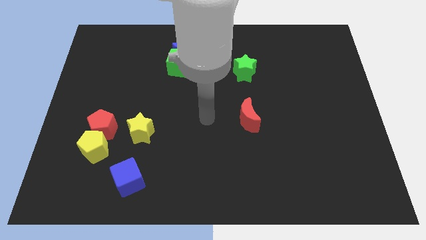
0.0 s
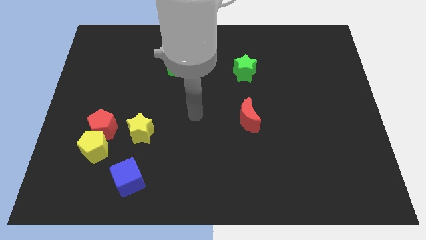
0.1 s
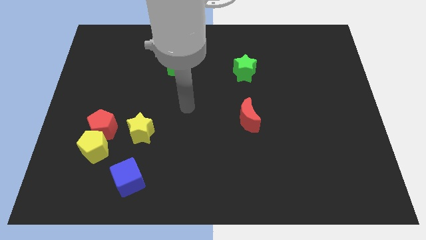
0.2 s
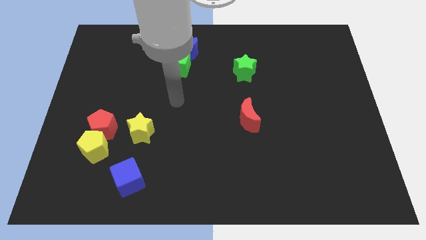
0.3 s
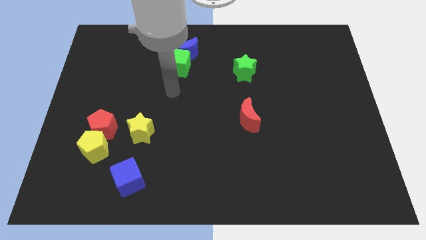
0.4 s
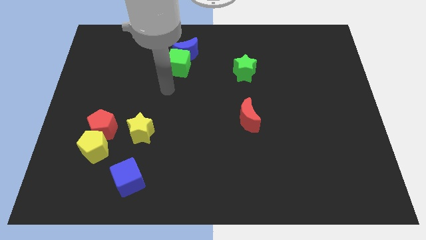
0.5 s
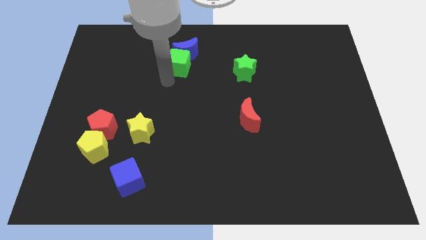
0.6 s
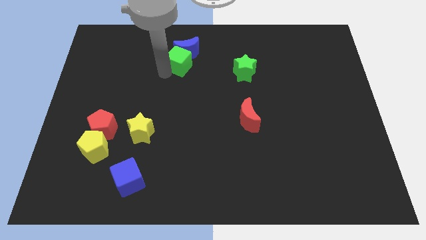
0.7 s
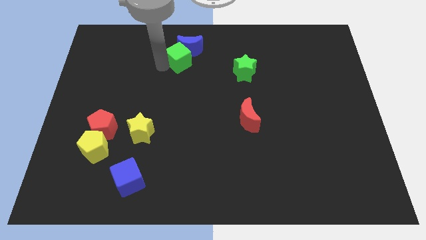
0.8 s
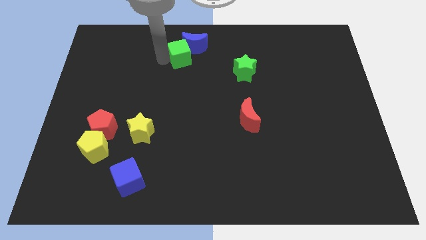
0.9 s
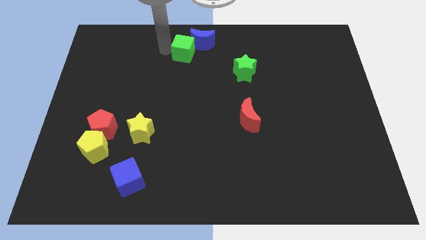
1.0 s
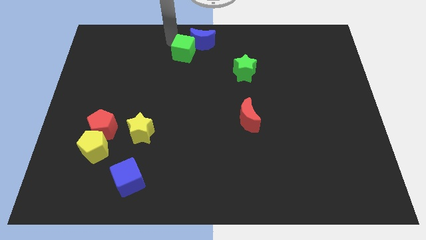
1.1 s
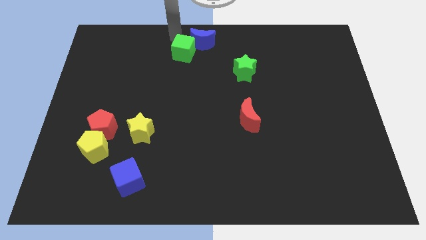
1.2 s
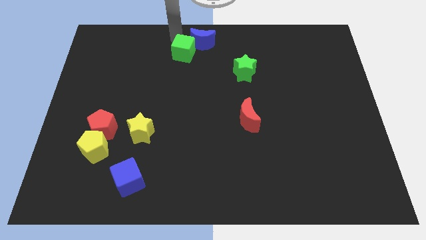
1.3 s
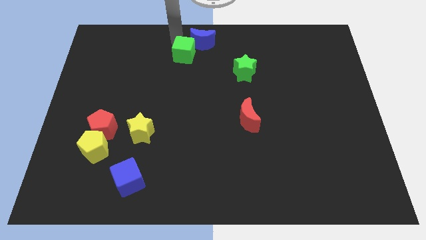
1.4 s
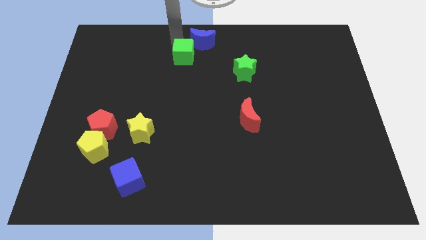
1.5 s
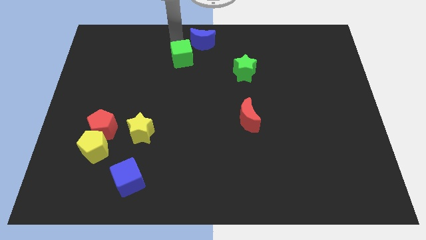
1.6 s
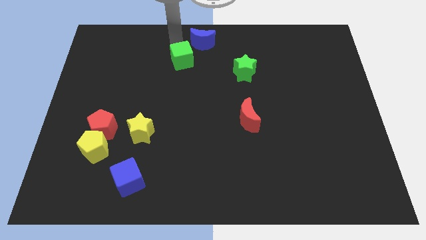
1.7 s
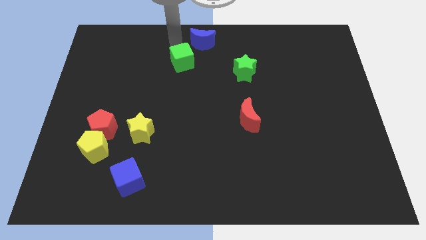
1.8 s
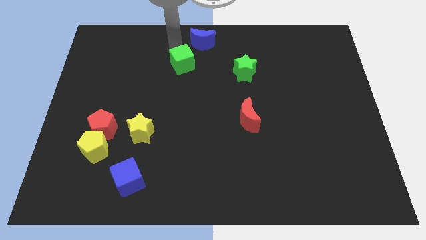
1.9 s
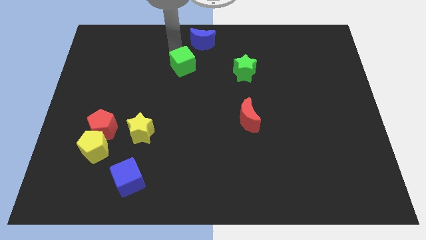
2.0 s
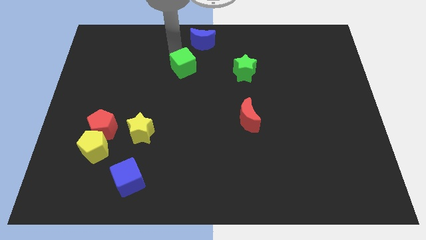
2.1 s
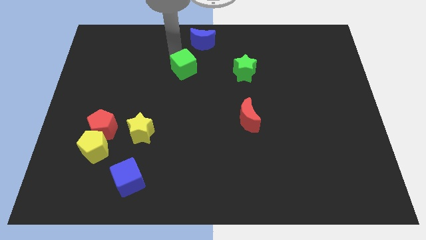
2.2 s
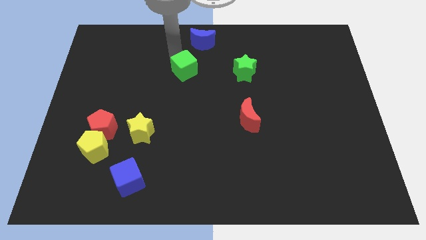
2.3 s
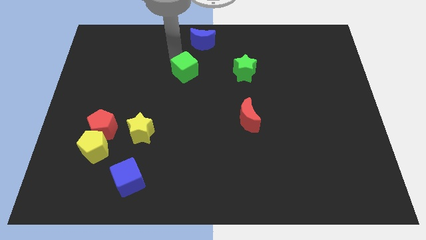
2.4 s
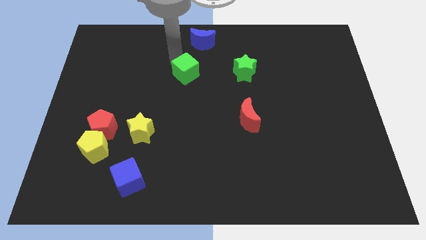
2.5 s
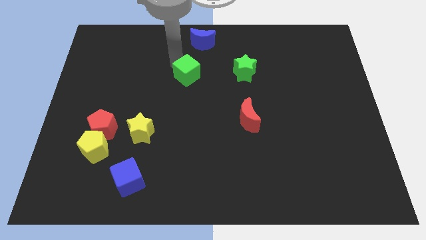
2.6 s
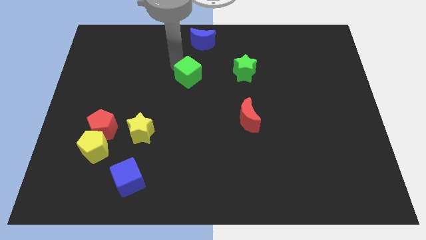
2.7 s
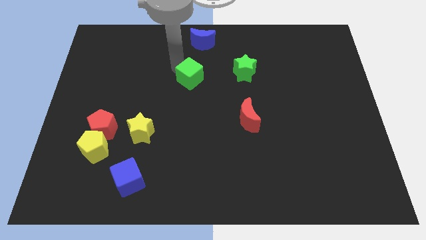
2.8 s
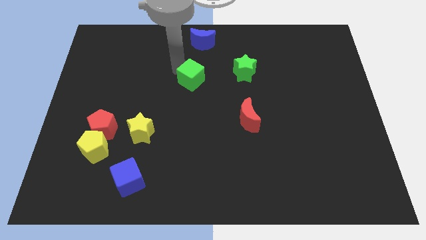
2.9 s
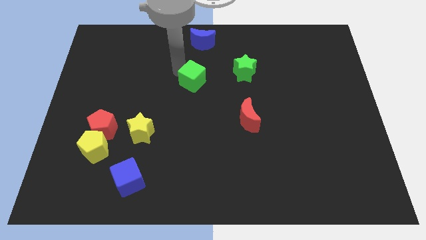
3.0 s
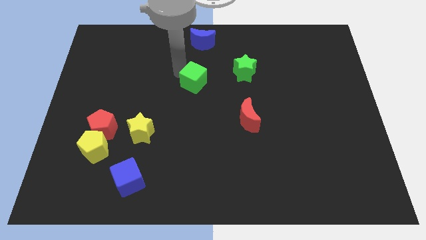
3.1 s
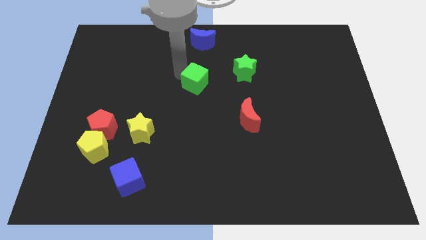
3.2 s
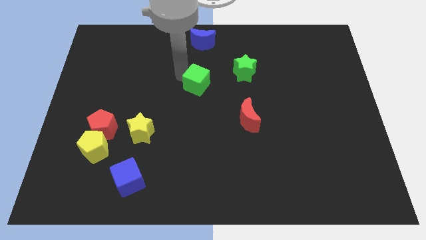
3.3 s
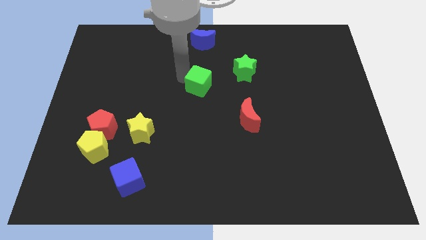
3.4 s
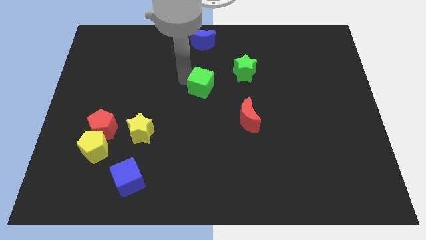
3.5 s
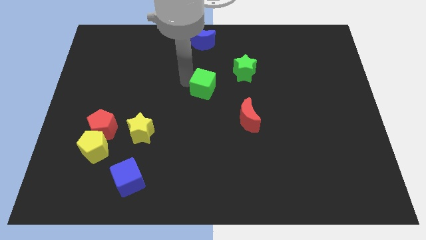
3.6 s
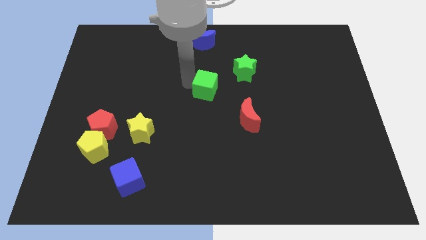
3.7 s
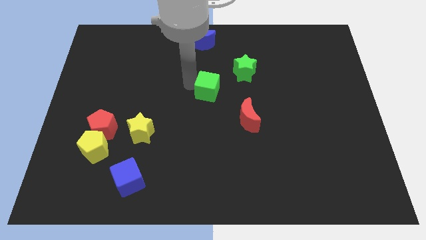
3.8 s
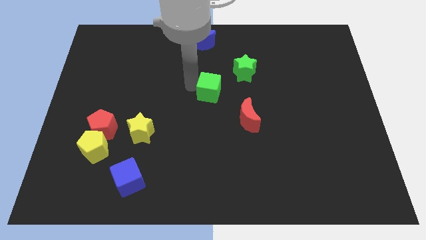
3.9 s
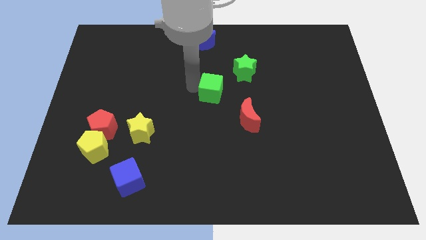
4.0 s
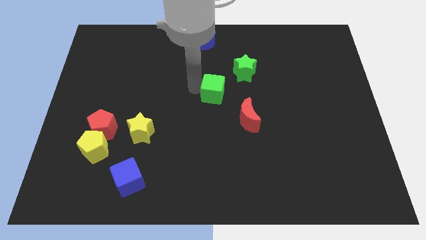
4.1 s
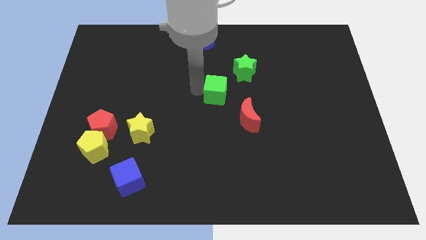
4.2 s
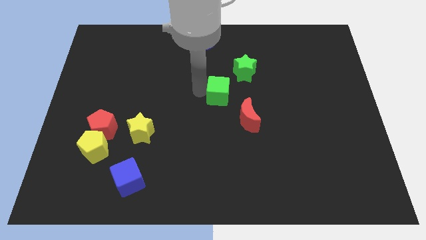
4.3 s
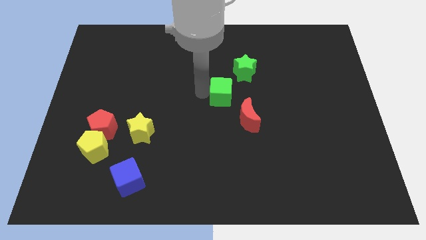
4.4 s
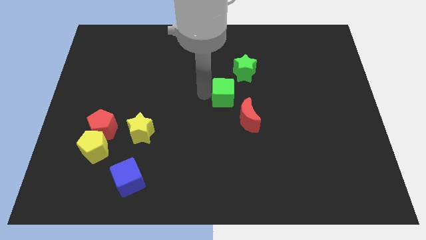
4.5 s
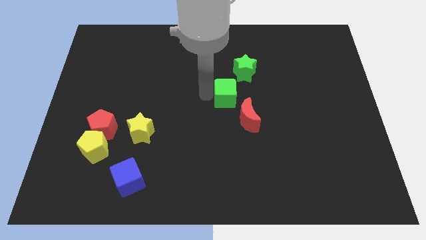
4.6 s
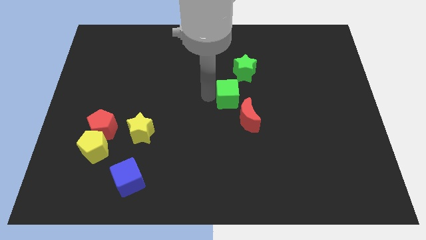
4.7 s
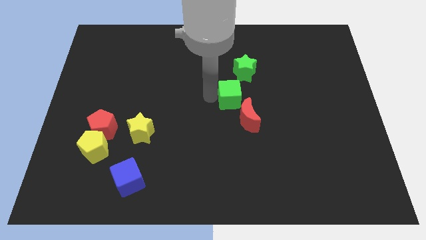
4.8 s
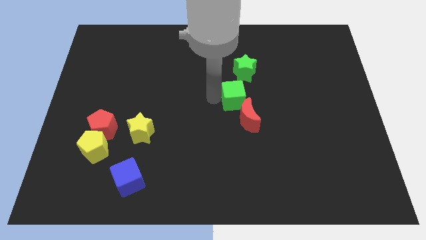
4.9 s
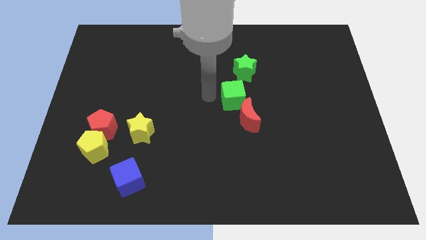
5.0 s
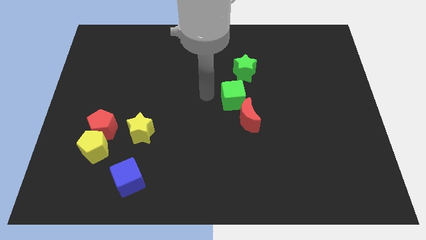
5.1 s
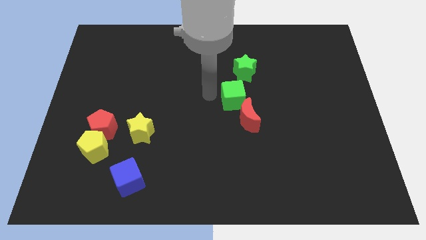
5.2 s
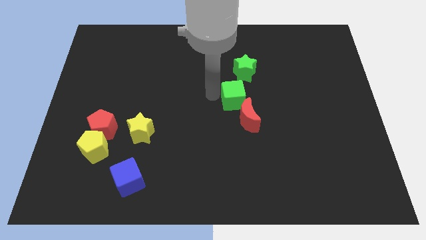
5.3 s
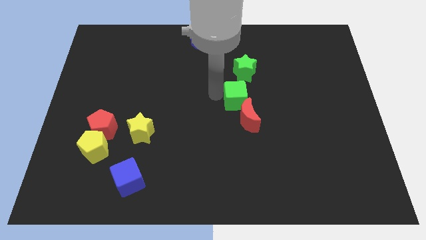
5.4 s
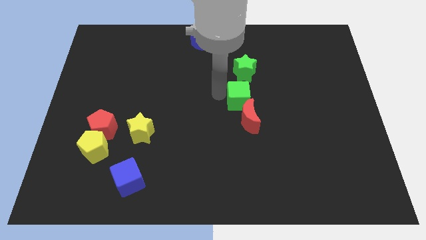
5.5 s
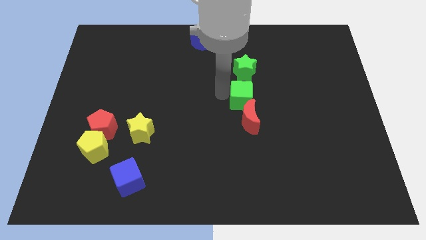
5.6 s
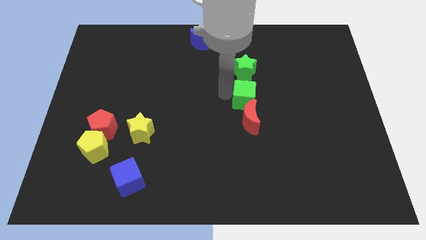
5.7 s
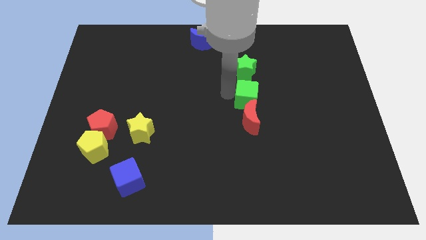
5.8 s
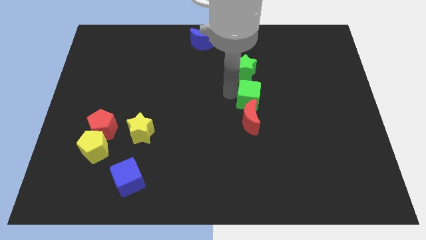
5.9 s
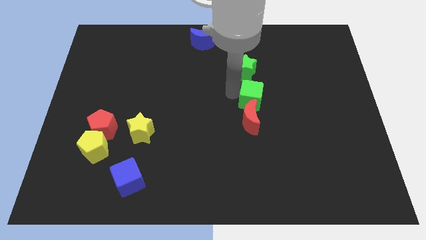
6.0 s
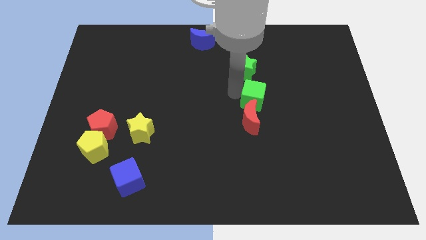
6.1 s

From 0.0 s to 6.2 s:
slide the green cube diagonally downwards and right

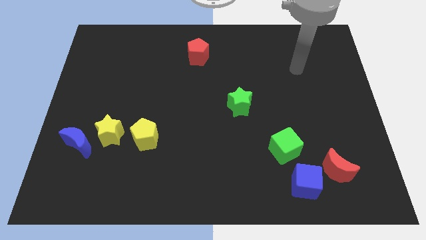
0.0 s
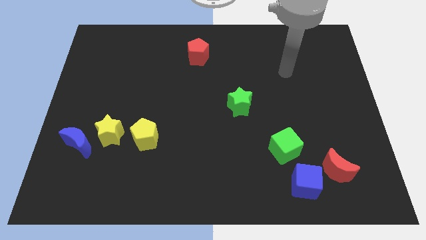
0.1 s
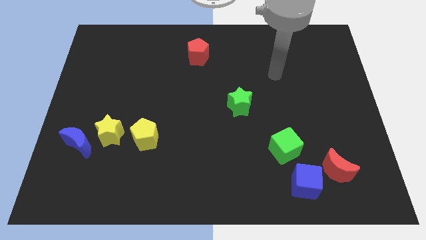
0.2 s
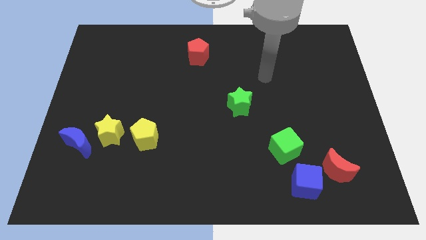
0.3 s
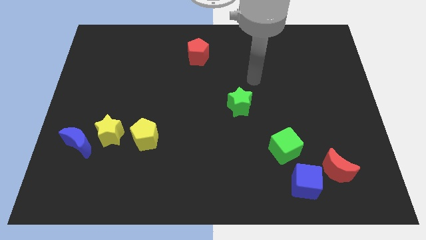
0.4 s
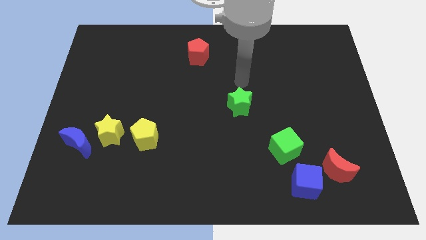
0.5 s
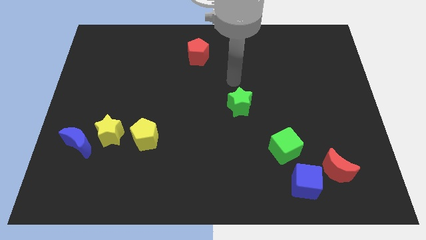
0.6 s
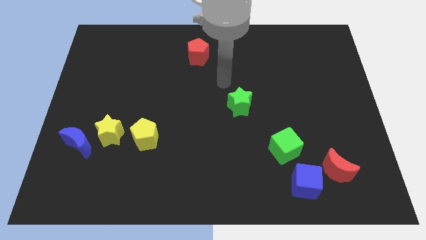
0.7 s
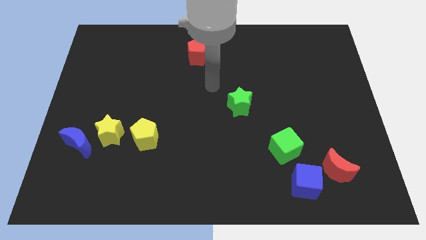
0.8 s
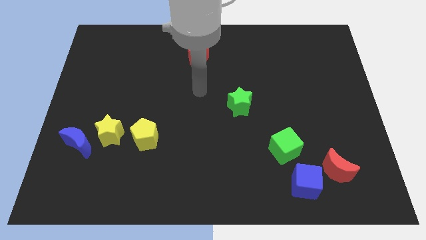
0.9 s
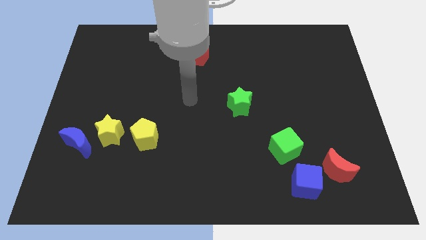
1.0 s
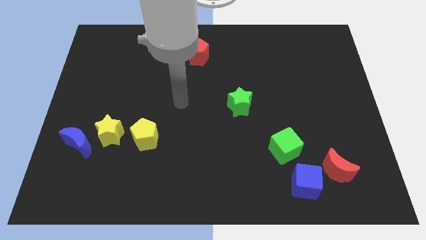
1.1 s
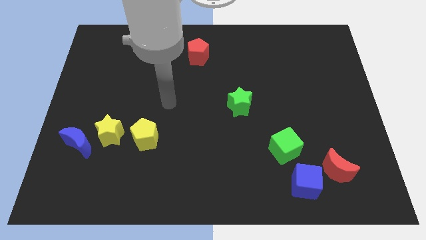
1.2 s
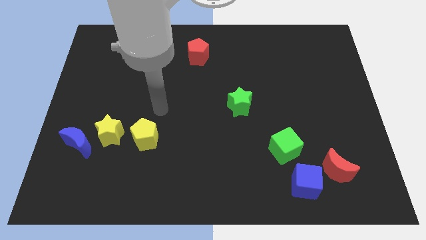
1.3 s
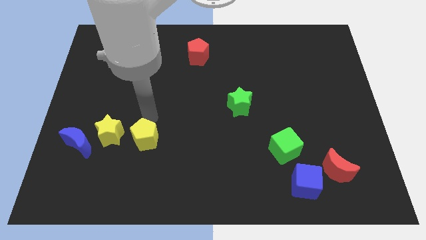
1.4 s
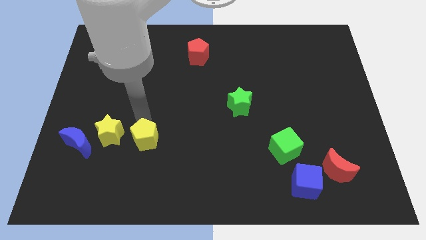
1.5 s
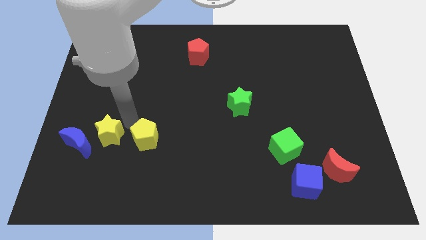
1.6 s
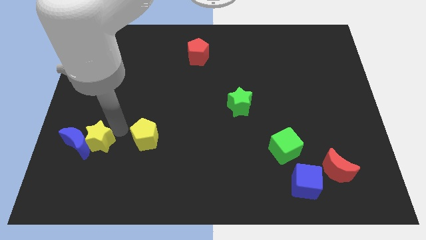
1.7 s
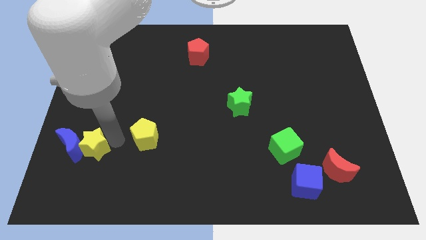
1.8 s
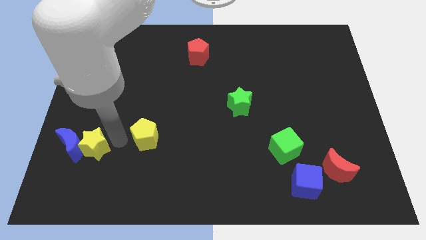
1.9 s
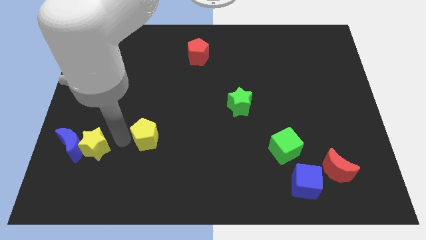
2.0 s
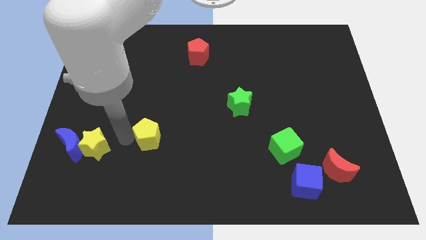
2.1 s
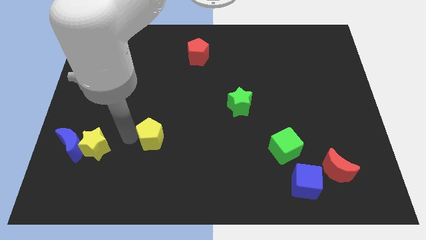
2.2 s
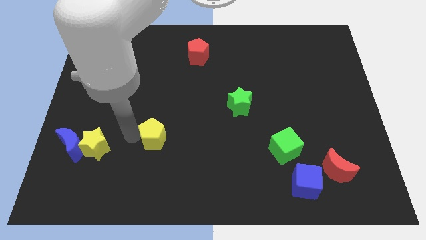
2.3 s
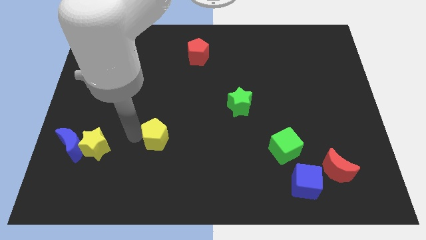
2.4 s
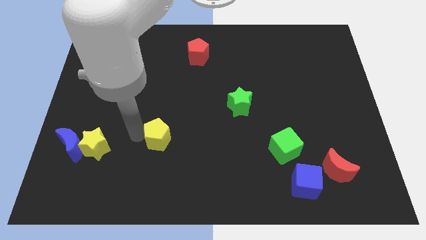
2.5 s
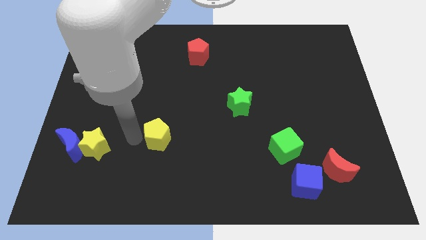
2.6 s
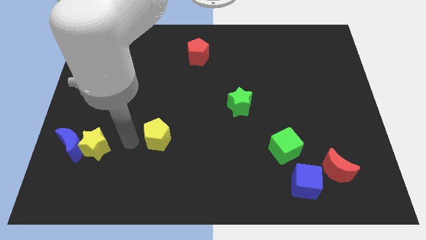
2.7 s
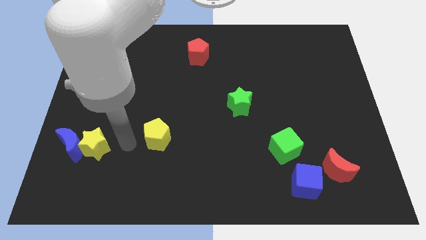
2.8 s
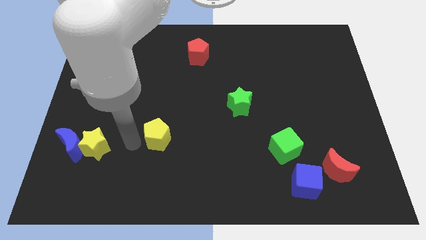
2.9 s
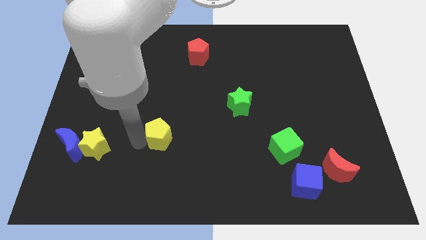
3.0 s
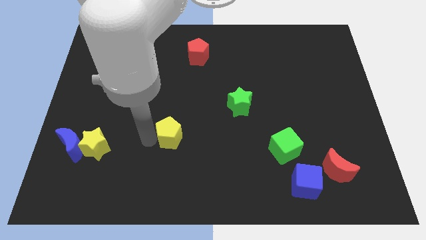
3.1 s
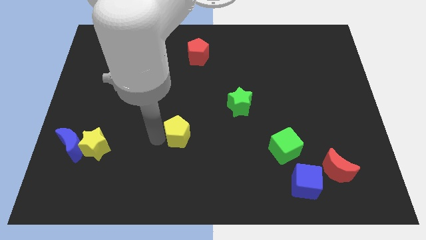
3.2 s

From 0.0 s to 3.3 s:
move the yellow pentagon right a little bit
